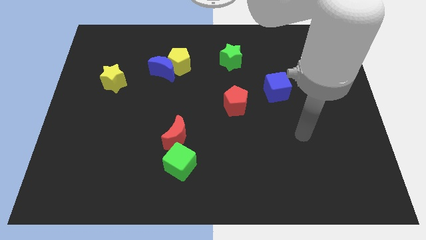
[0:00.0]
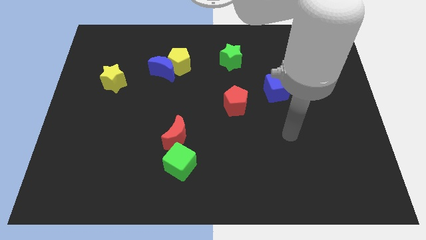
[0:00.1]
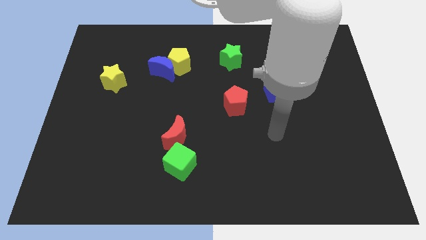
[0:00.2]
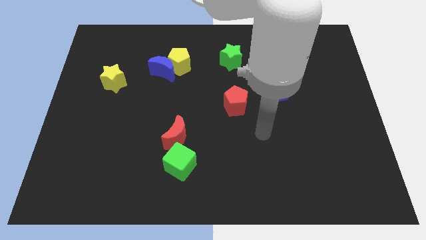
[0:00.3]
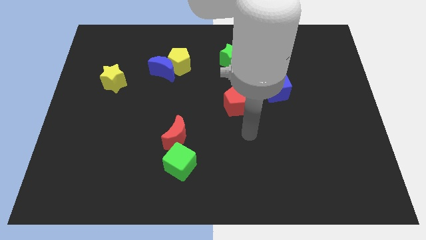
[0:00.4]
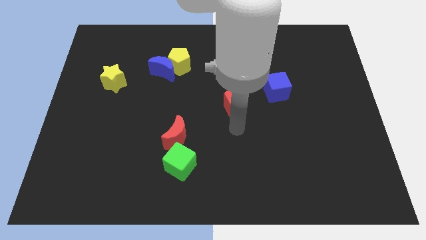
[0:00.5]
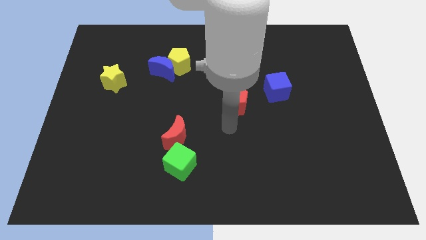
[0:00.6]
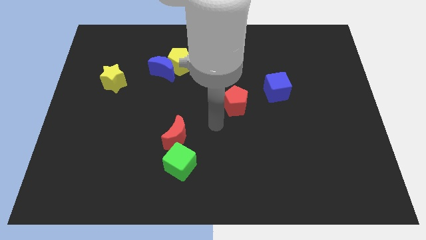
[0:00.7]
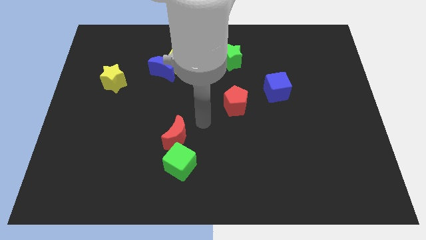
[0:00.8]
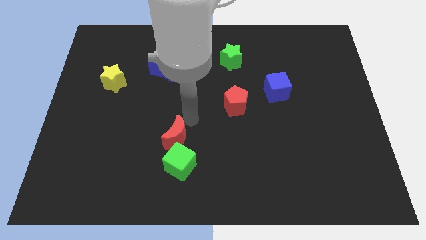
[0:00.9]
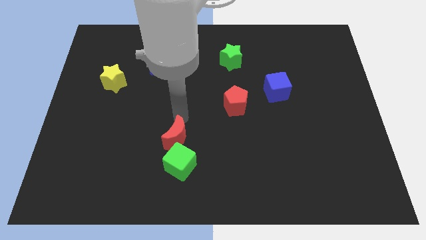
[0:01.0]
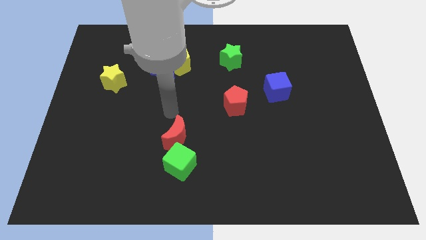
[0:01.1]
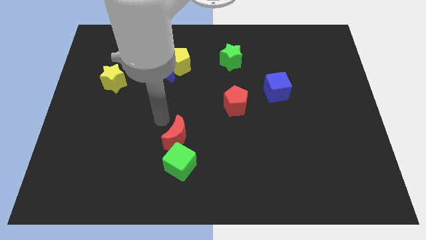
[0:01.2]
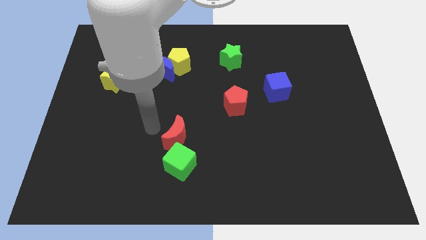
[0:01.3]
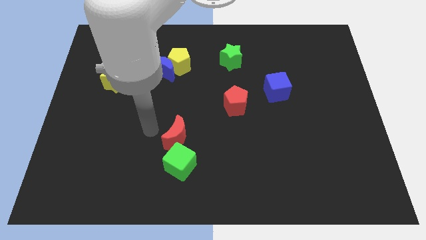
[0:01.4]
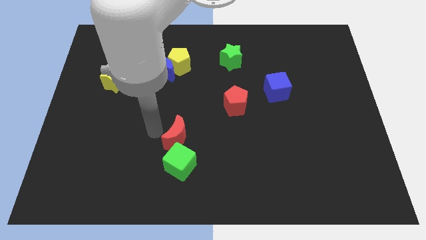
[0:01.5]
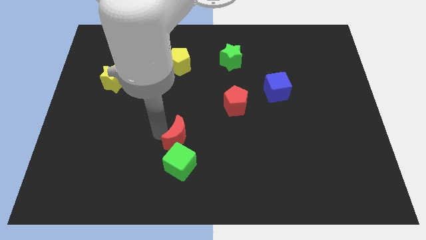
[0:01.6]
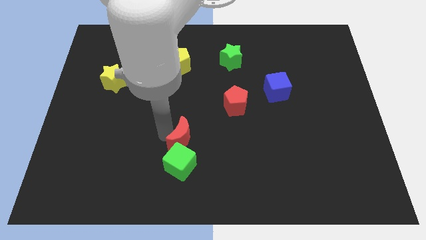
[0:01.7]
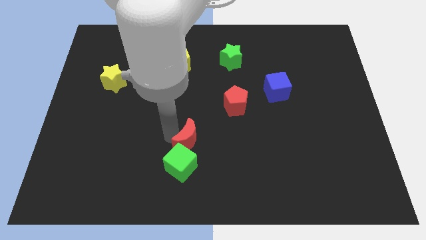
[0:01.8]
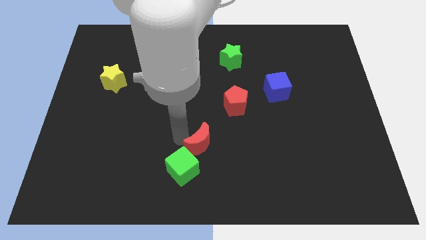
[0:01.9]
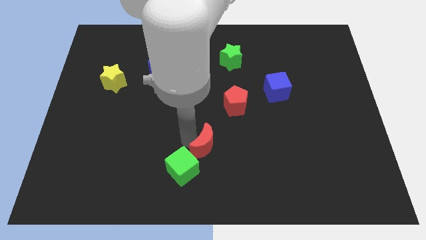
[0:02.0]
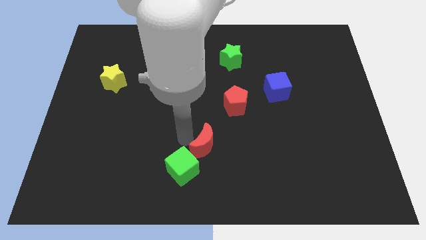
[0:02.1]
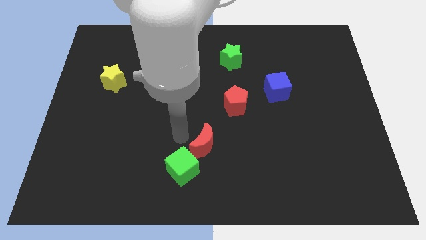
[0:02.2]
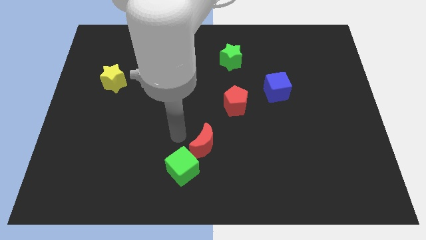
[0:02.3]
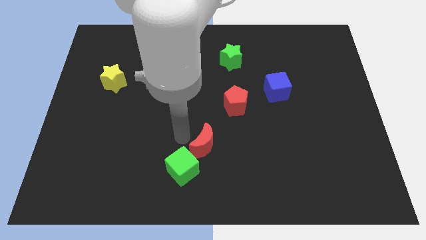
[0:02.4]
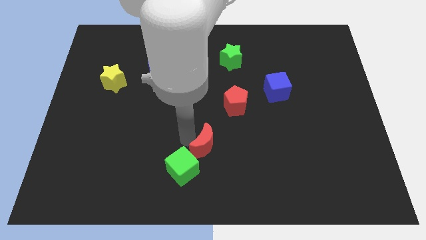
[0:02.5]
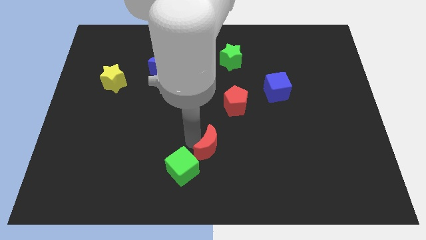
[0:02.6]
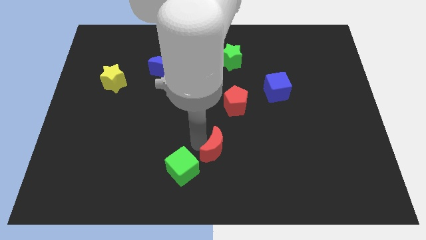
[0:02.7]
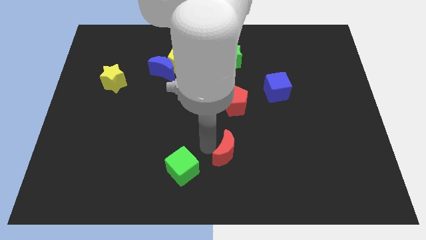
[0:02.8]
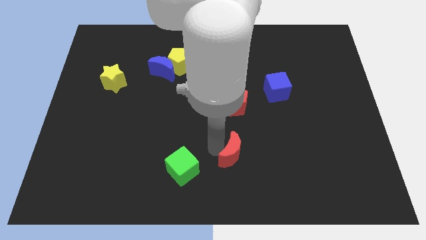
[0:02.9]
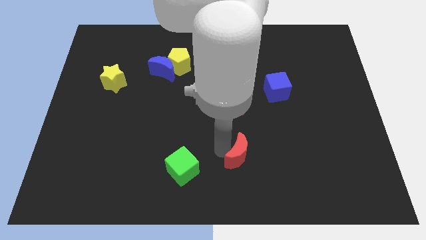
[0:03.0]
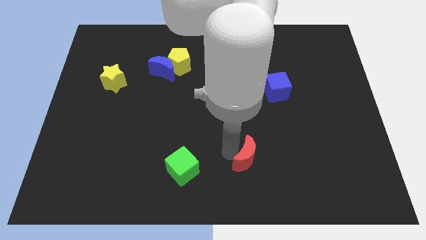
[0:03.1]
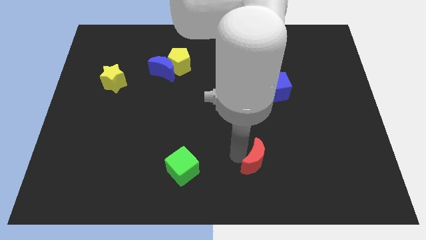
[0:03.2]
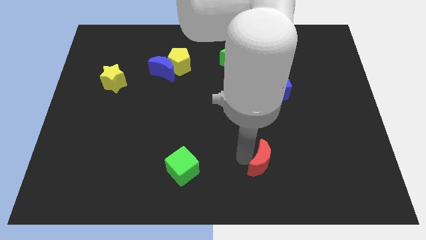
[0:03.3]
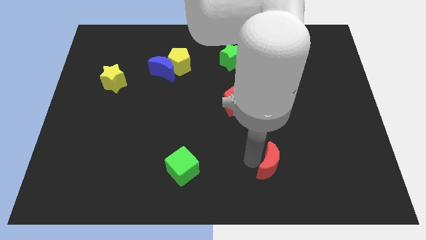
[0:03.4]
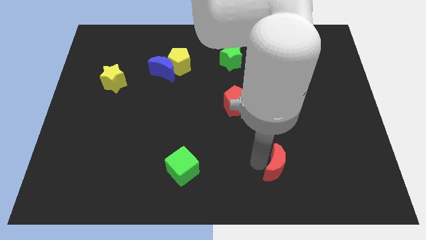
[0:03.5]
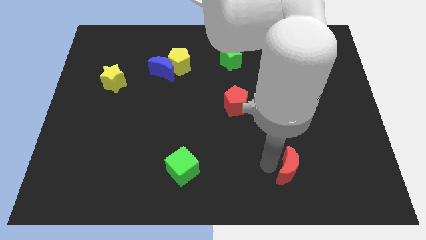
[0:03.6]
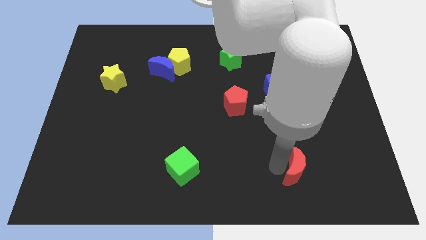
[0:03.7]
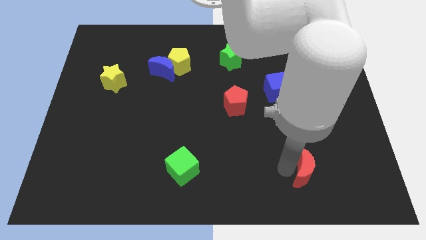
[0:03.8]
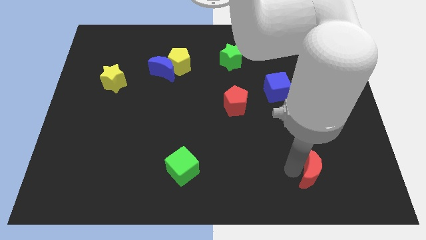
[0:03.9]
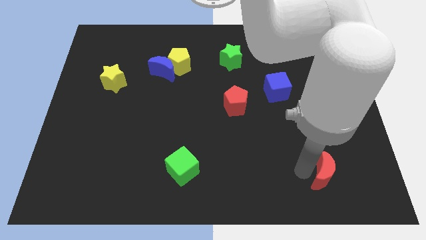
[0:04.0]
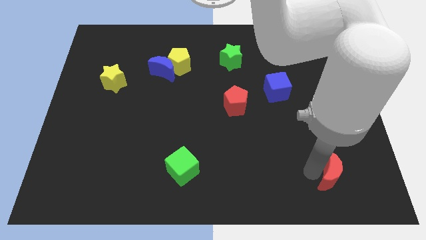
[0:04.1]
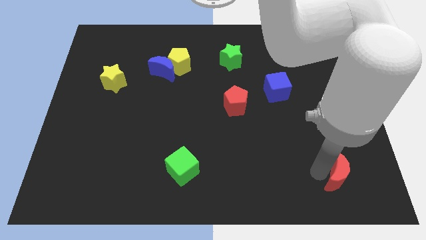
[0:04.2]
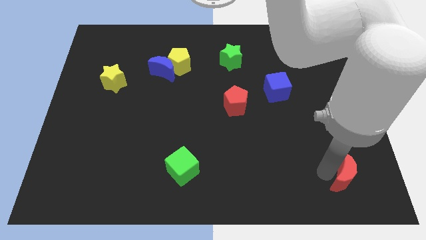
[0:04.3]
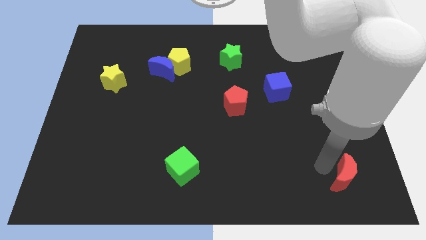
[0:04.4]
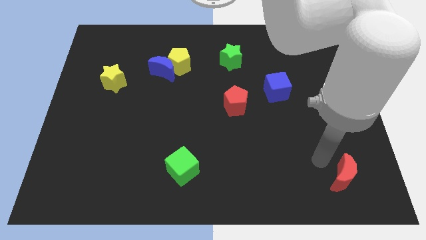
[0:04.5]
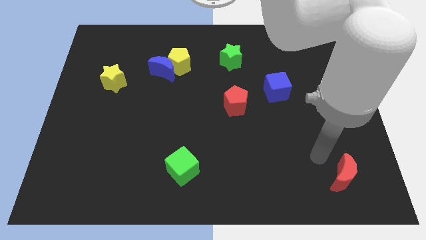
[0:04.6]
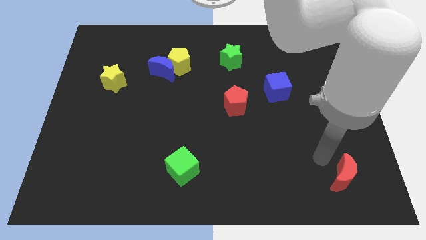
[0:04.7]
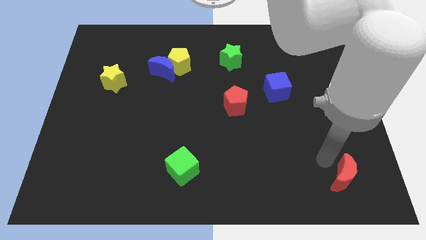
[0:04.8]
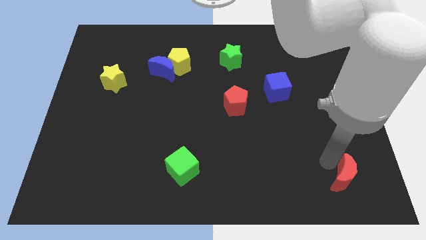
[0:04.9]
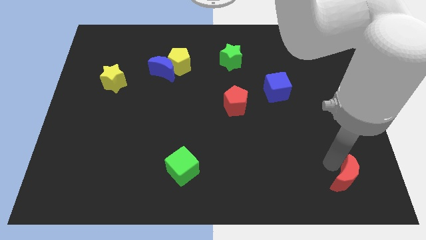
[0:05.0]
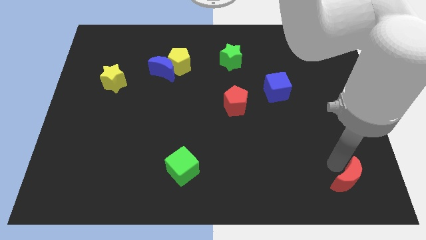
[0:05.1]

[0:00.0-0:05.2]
push the red moon to the bottom right of the board

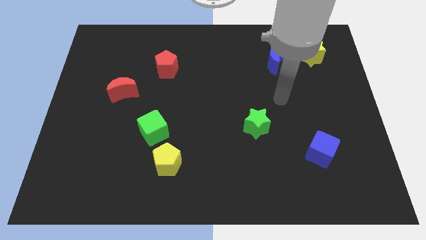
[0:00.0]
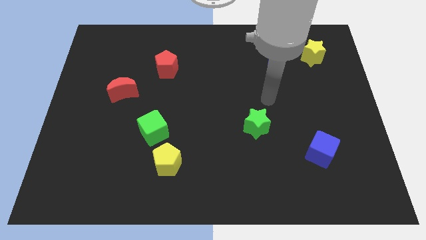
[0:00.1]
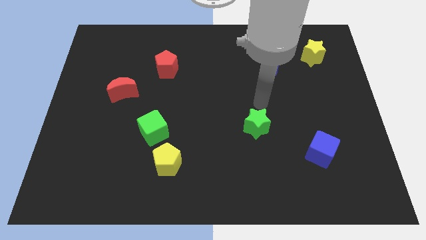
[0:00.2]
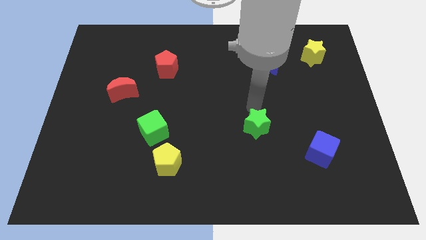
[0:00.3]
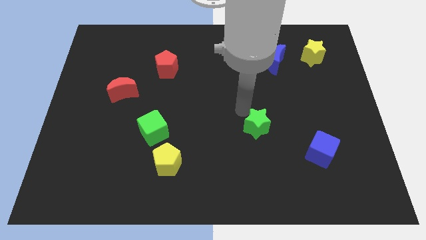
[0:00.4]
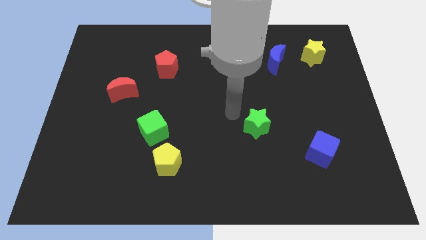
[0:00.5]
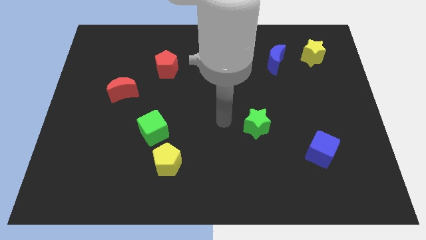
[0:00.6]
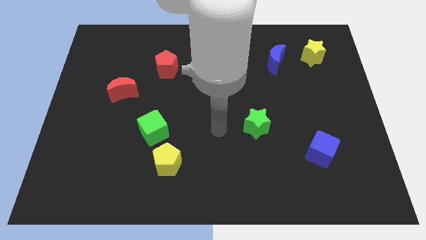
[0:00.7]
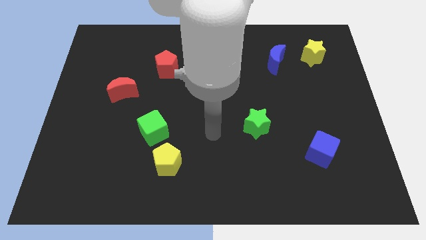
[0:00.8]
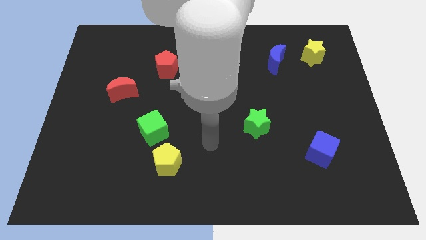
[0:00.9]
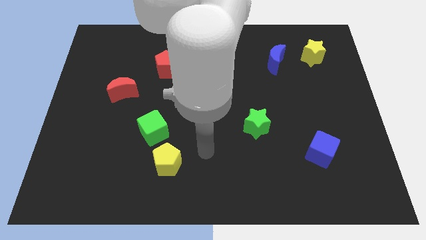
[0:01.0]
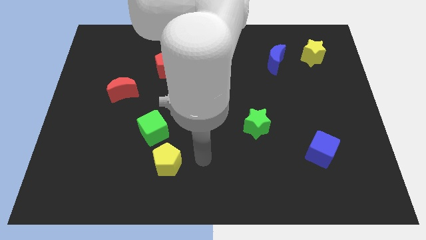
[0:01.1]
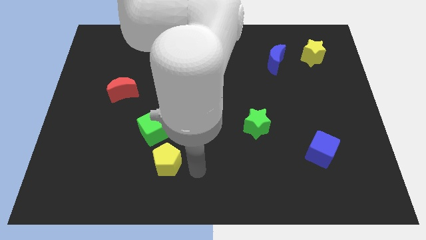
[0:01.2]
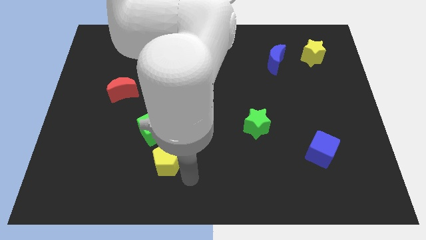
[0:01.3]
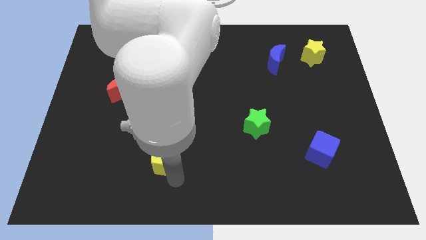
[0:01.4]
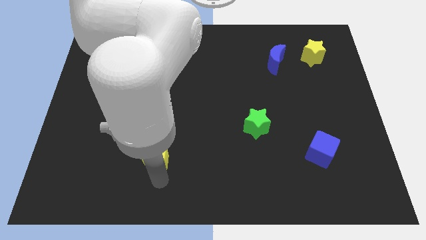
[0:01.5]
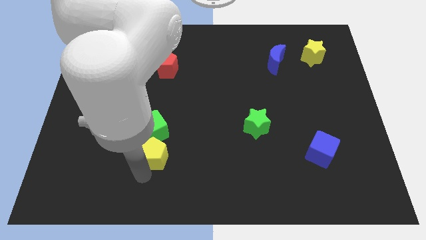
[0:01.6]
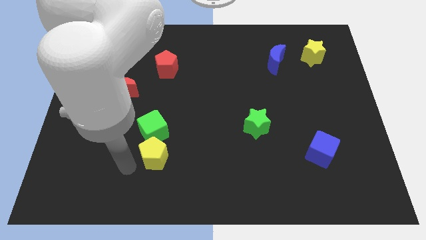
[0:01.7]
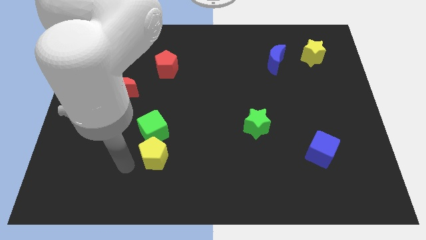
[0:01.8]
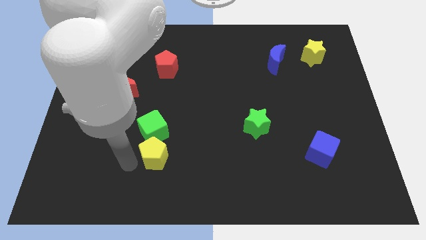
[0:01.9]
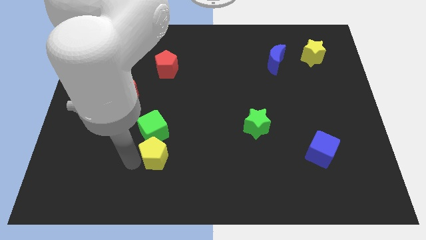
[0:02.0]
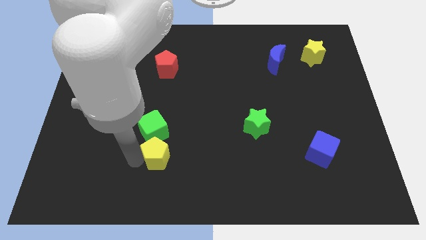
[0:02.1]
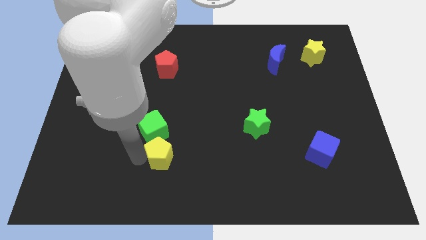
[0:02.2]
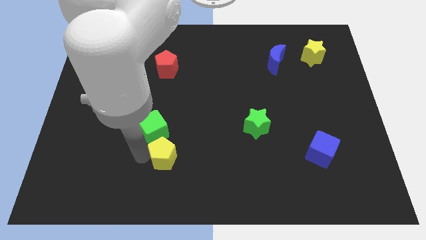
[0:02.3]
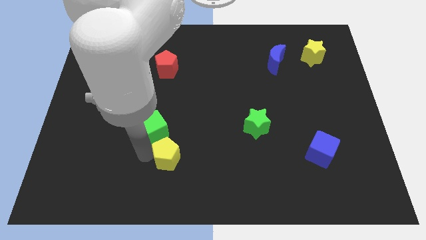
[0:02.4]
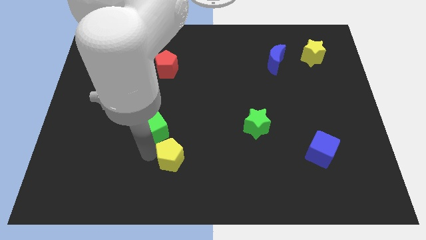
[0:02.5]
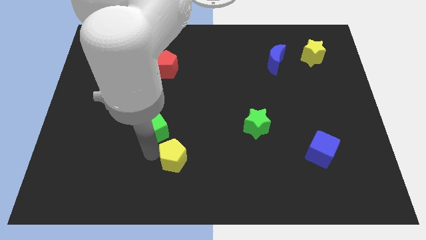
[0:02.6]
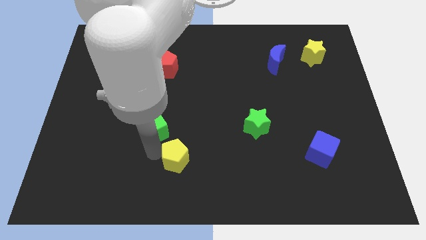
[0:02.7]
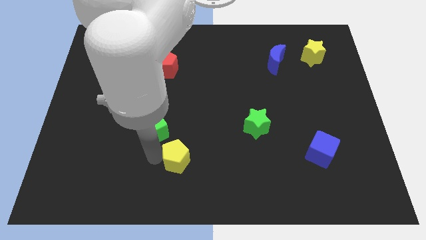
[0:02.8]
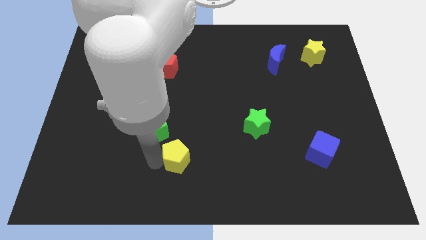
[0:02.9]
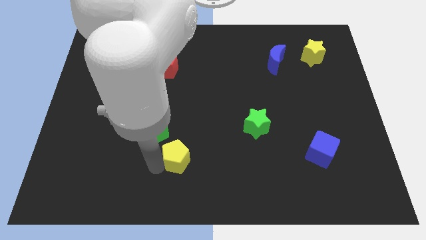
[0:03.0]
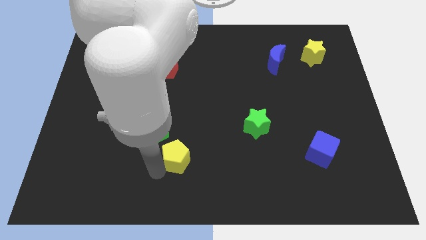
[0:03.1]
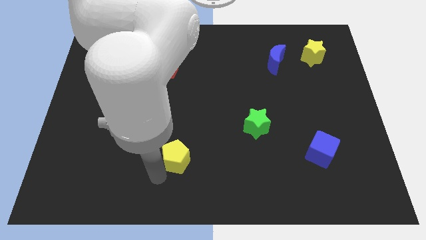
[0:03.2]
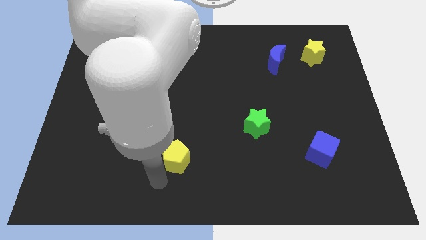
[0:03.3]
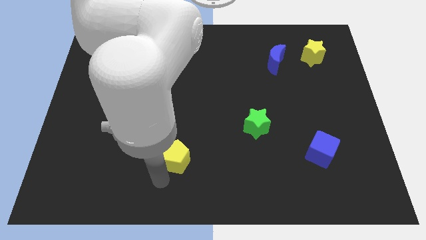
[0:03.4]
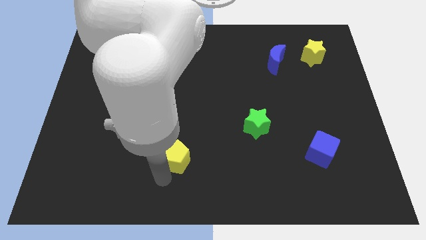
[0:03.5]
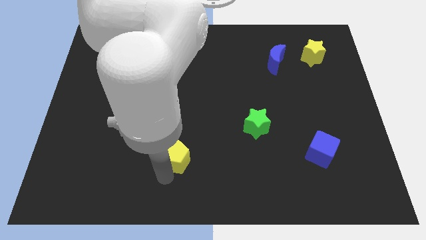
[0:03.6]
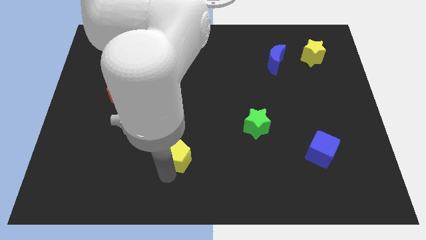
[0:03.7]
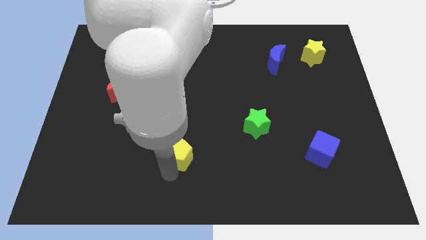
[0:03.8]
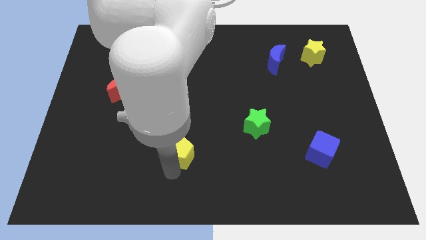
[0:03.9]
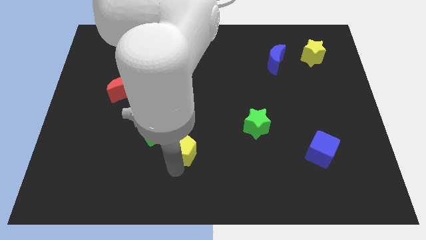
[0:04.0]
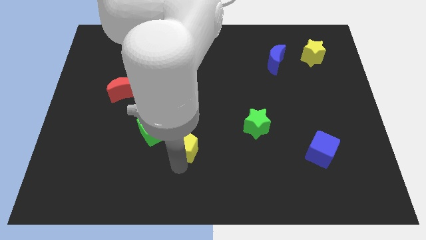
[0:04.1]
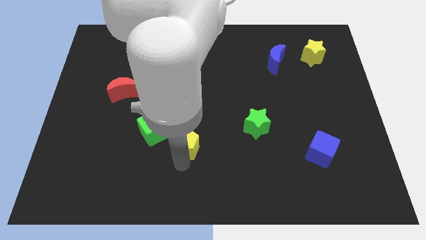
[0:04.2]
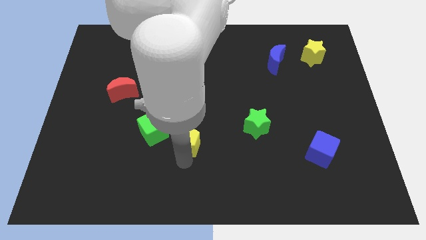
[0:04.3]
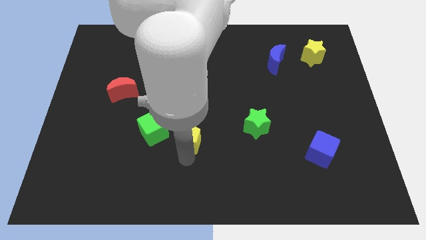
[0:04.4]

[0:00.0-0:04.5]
move the yellow pentagon to the middle
